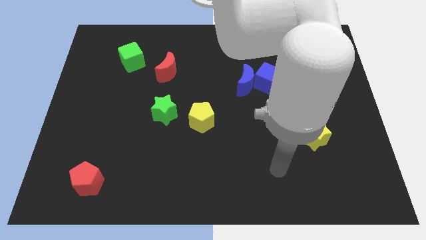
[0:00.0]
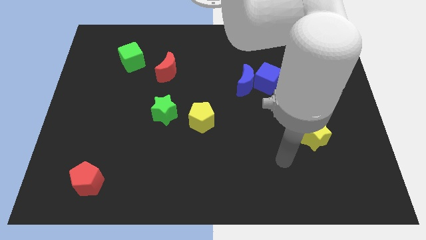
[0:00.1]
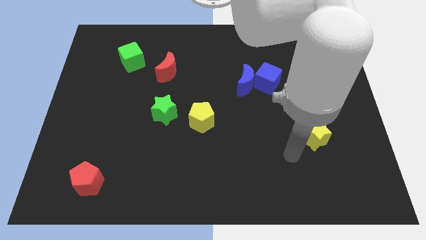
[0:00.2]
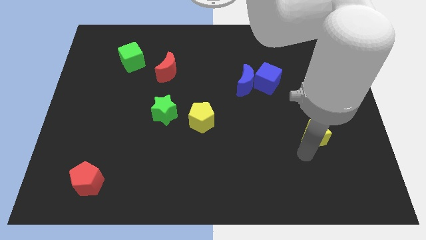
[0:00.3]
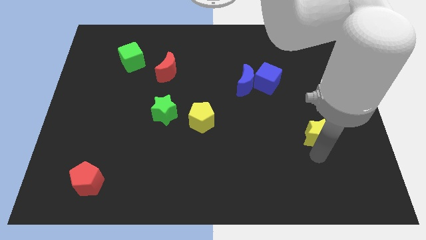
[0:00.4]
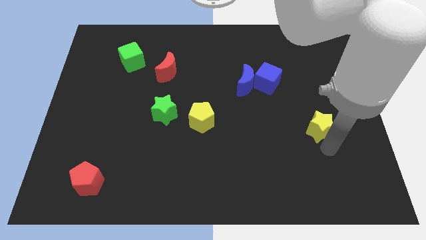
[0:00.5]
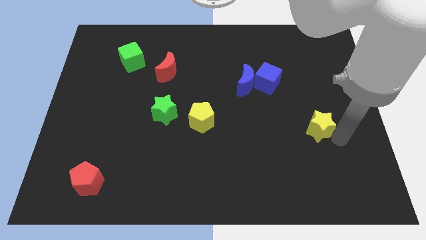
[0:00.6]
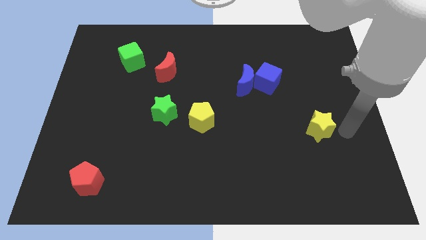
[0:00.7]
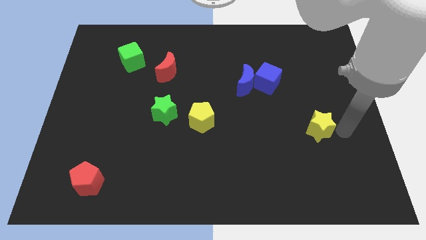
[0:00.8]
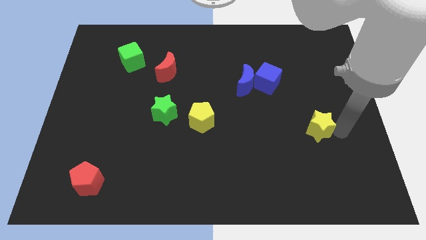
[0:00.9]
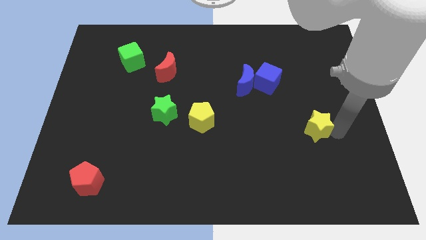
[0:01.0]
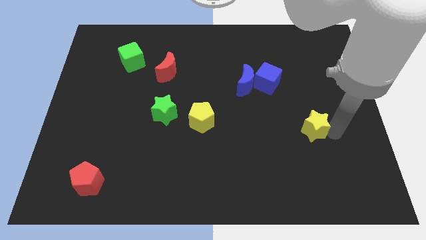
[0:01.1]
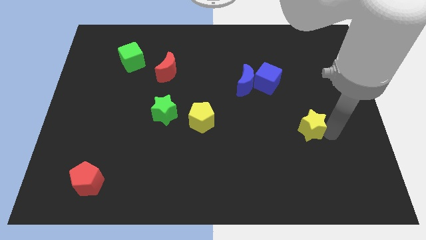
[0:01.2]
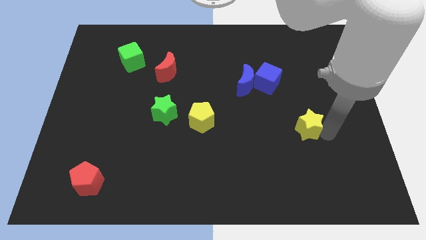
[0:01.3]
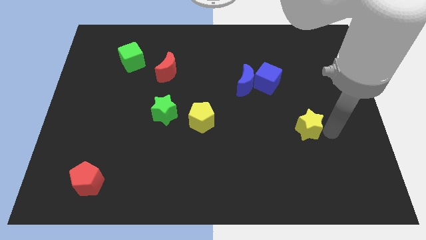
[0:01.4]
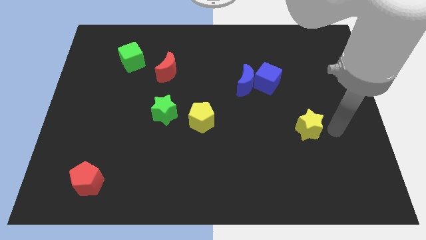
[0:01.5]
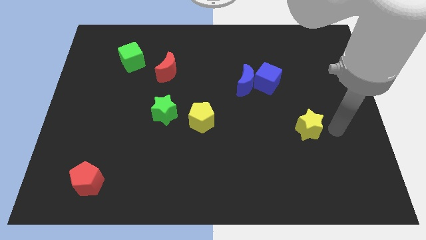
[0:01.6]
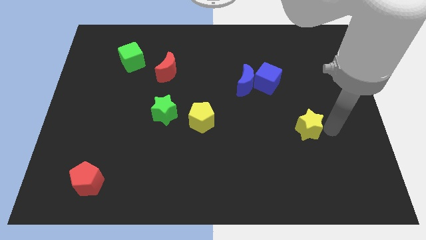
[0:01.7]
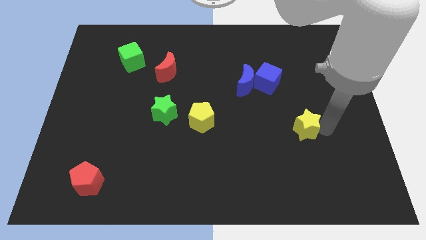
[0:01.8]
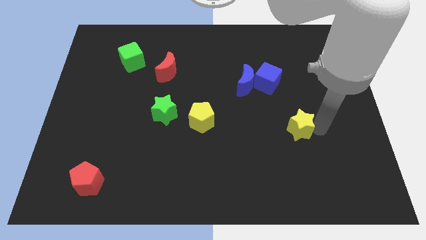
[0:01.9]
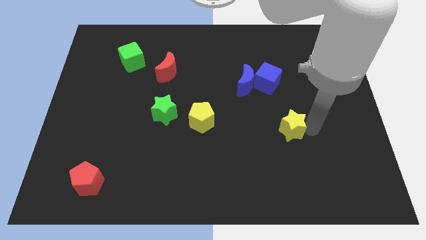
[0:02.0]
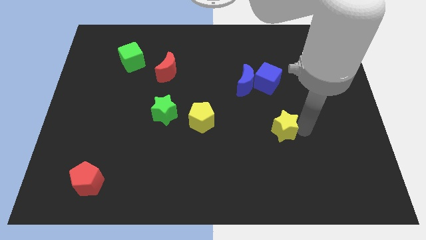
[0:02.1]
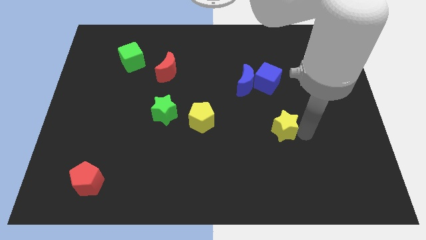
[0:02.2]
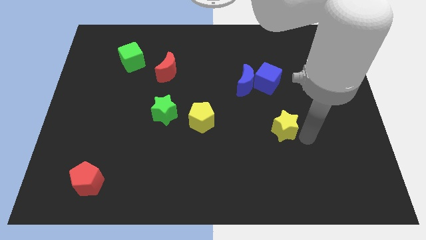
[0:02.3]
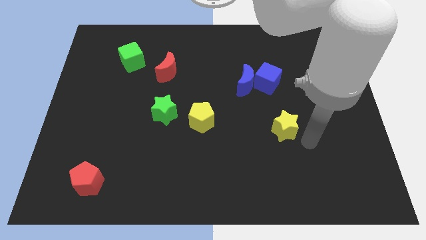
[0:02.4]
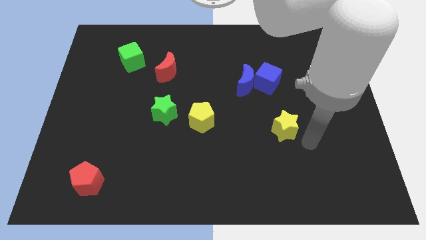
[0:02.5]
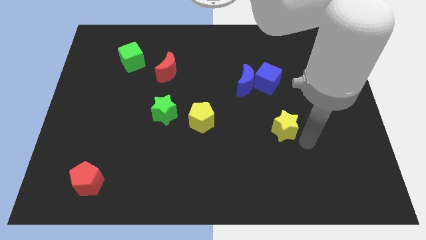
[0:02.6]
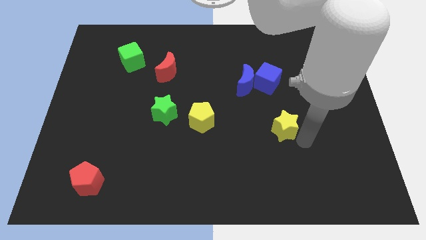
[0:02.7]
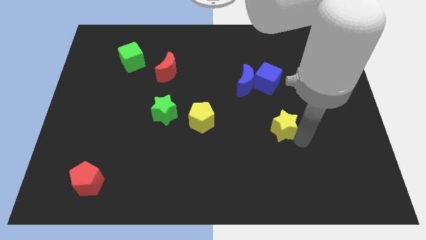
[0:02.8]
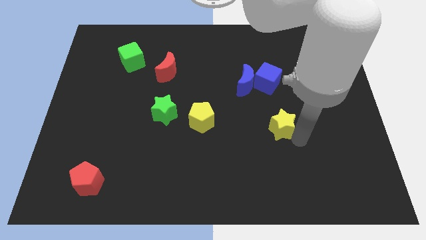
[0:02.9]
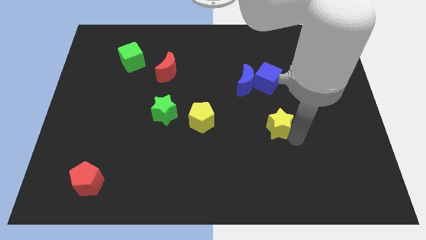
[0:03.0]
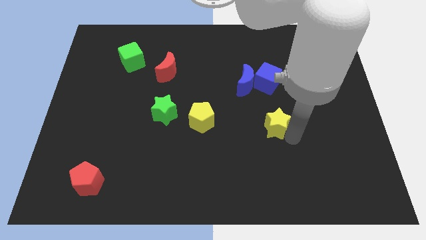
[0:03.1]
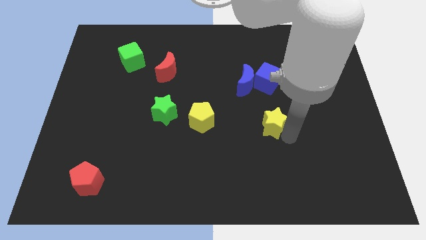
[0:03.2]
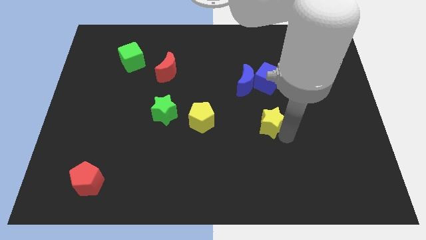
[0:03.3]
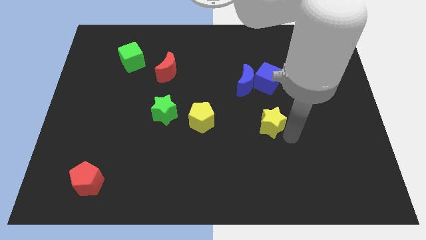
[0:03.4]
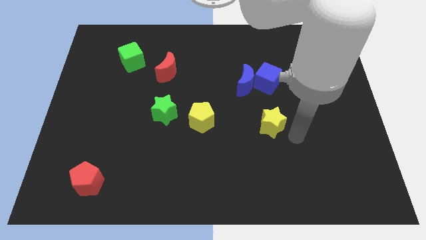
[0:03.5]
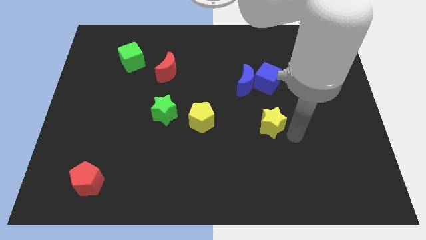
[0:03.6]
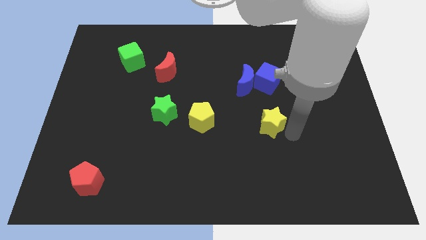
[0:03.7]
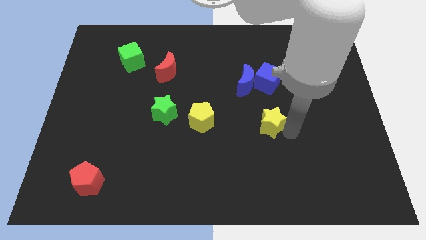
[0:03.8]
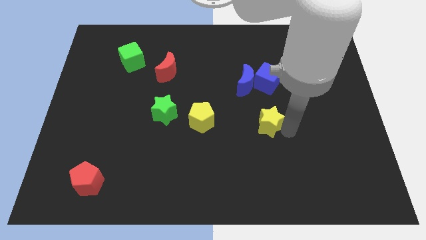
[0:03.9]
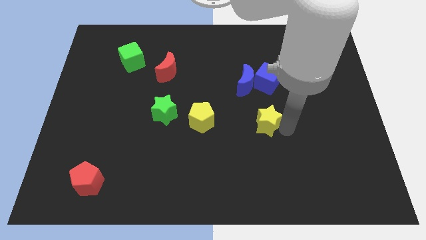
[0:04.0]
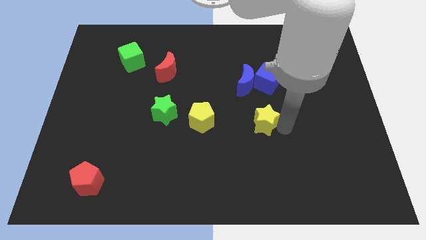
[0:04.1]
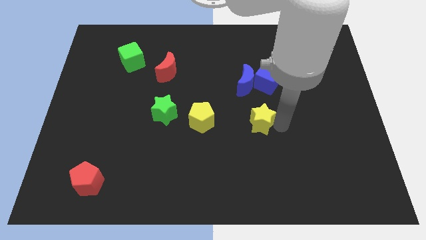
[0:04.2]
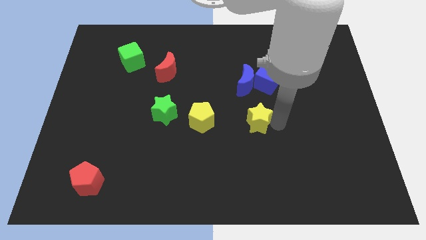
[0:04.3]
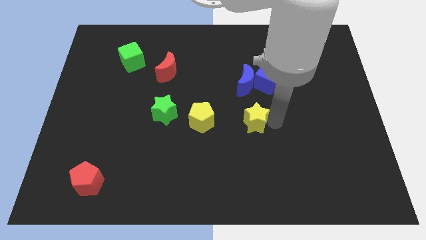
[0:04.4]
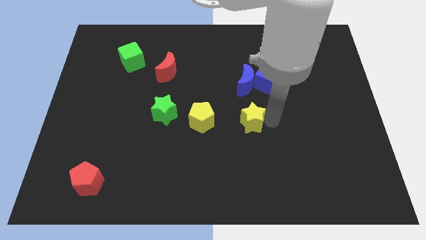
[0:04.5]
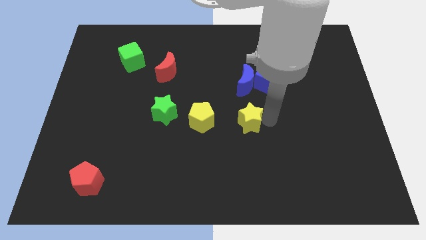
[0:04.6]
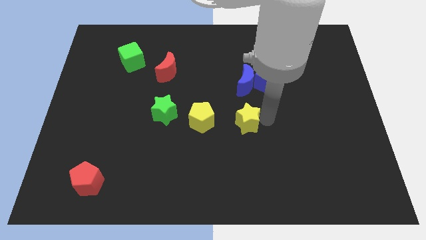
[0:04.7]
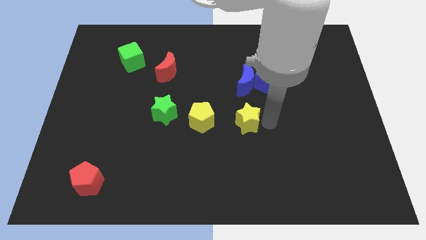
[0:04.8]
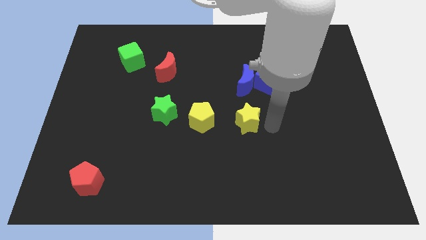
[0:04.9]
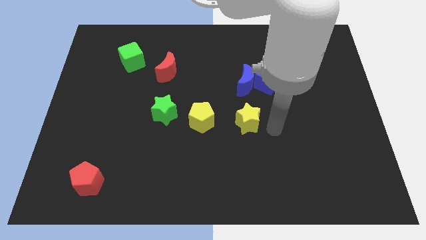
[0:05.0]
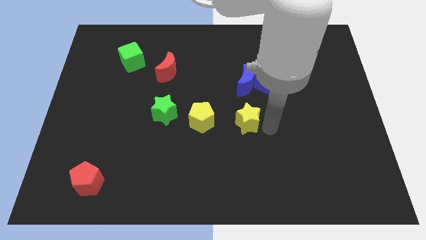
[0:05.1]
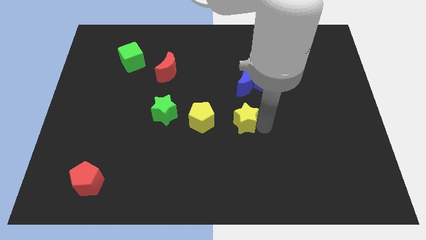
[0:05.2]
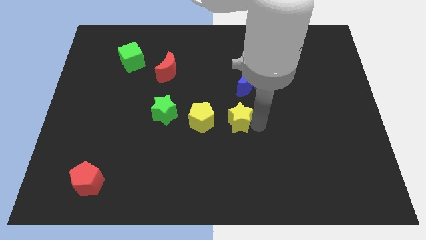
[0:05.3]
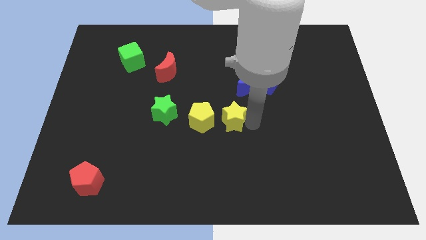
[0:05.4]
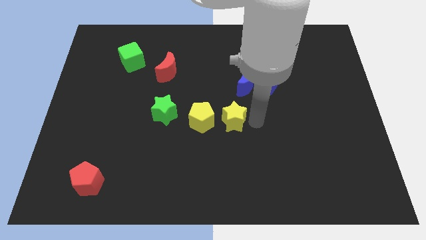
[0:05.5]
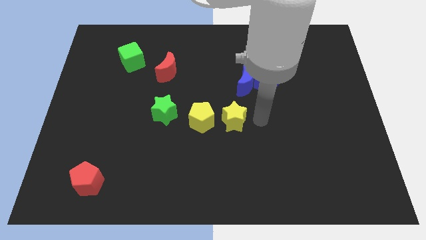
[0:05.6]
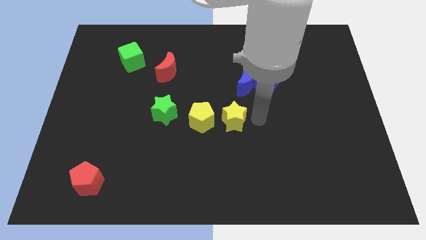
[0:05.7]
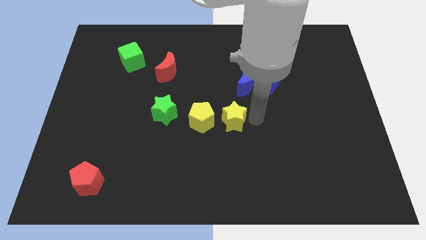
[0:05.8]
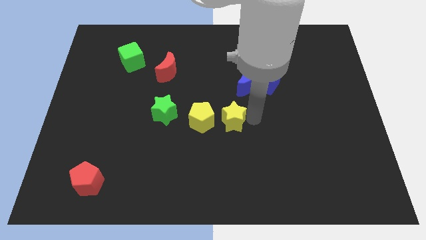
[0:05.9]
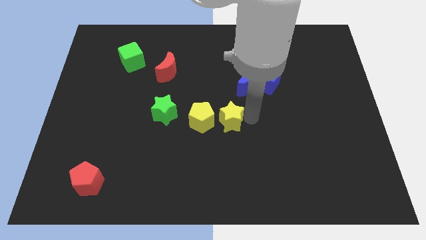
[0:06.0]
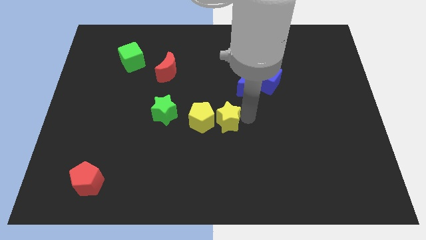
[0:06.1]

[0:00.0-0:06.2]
put the yellow star close to the yellow pentagon

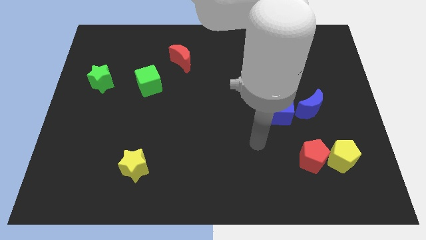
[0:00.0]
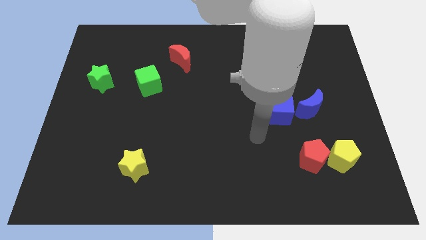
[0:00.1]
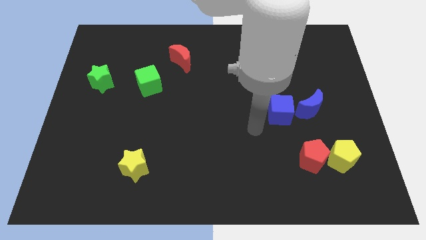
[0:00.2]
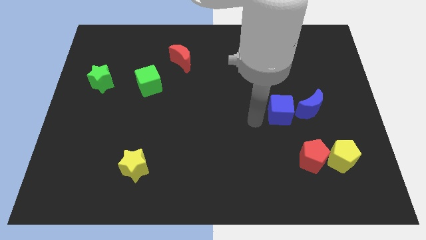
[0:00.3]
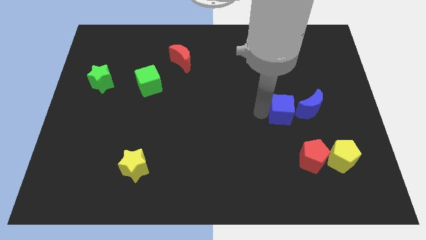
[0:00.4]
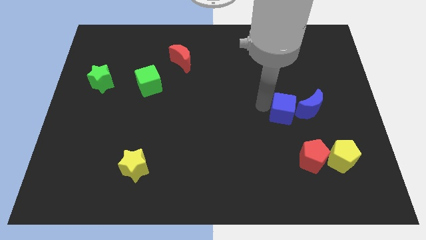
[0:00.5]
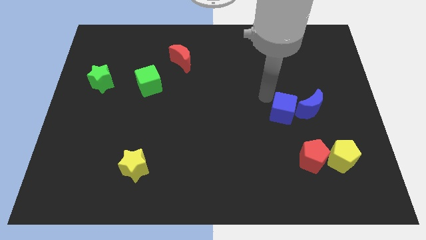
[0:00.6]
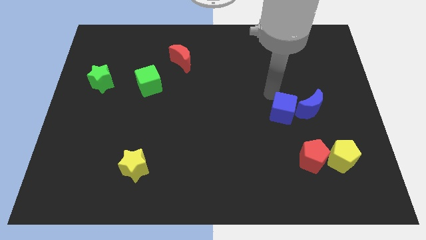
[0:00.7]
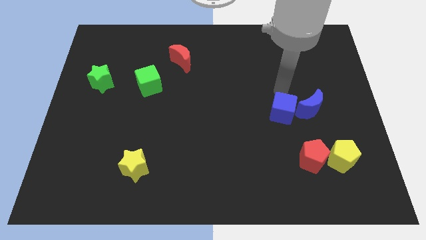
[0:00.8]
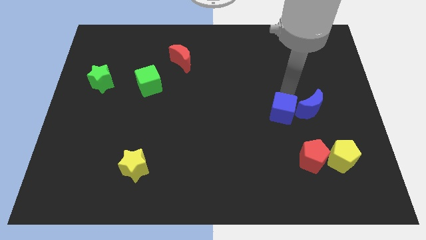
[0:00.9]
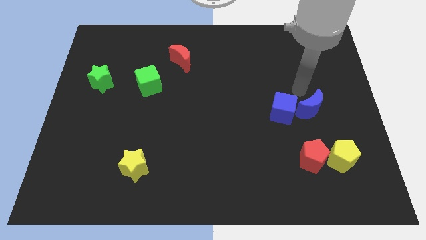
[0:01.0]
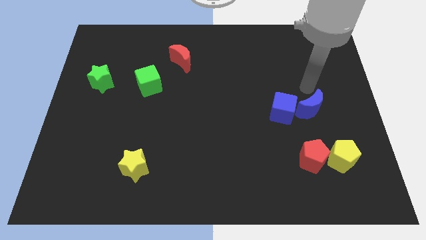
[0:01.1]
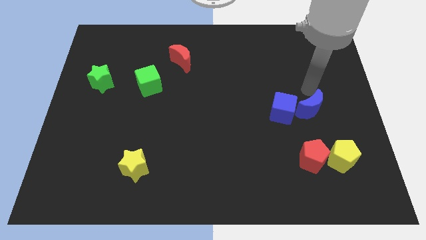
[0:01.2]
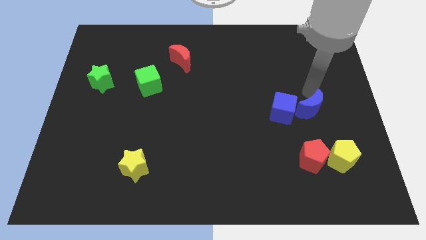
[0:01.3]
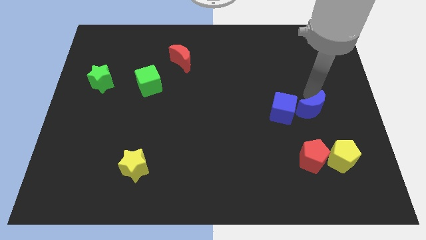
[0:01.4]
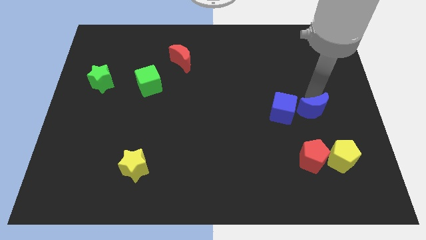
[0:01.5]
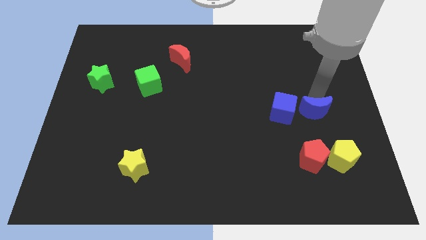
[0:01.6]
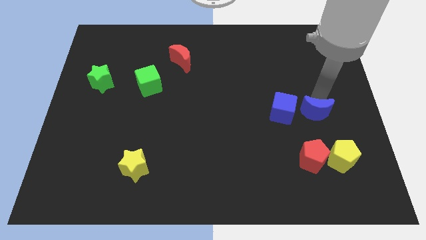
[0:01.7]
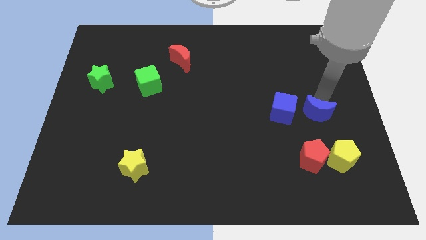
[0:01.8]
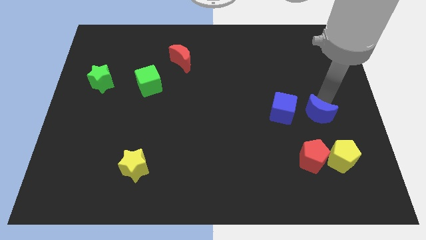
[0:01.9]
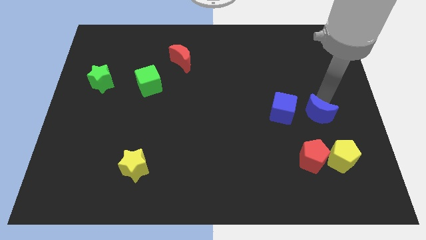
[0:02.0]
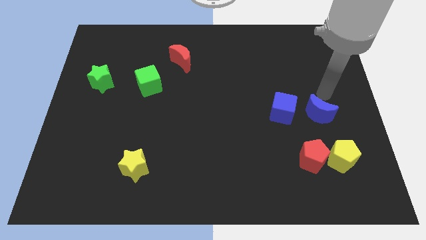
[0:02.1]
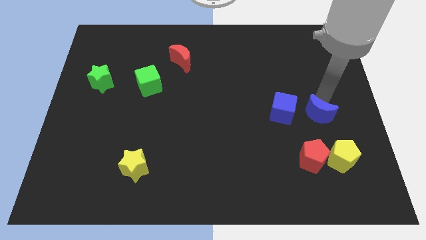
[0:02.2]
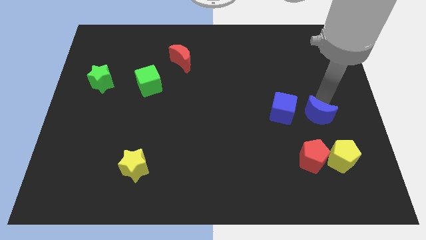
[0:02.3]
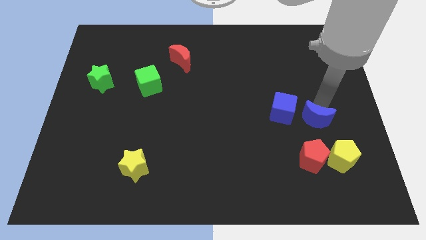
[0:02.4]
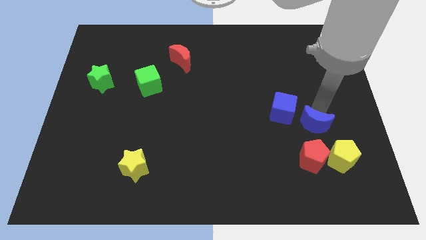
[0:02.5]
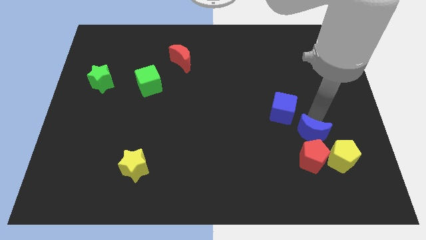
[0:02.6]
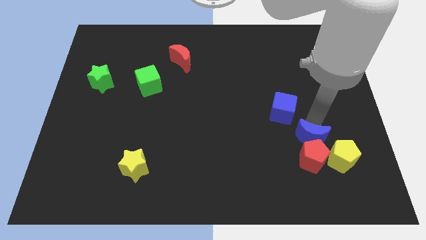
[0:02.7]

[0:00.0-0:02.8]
push the blue moon next to the red pentagon
